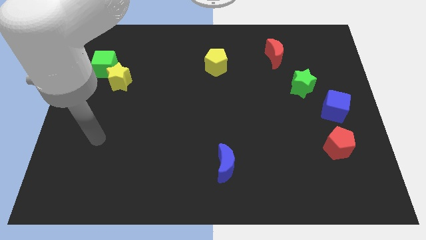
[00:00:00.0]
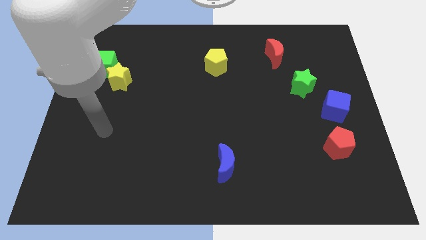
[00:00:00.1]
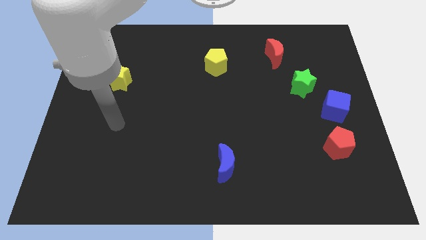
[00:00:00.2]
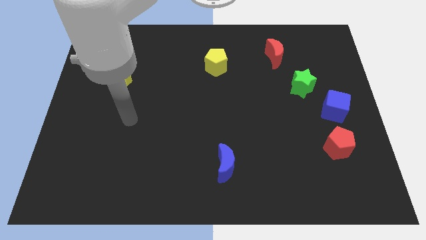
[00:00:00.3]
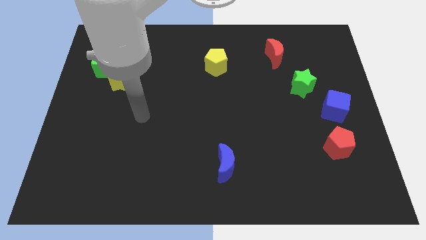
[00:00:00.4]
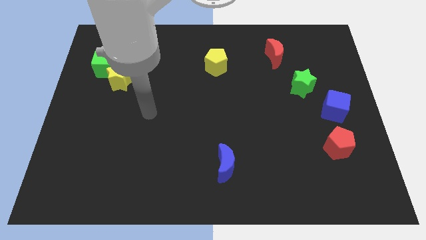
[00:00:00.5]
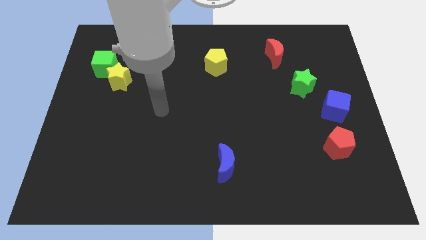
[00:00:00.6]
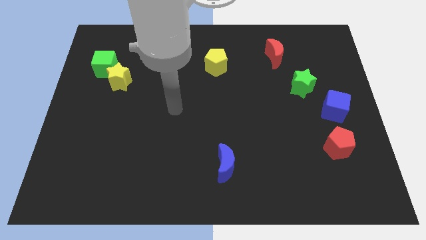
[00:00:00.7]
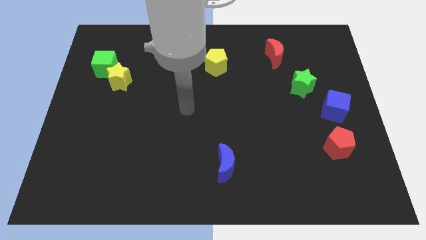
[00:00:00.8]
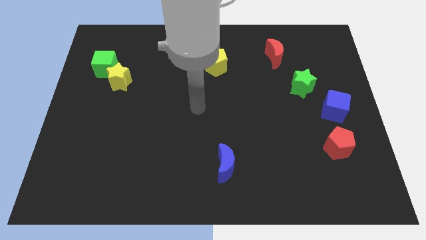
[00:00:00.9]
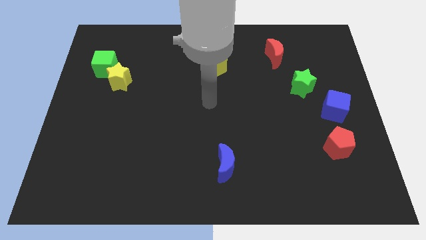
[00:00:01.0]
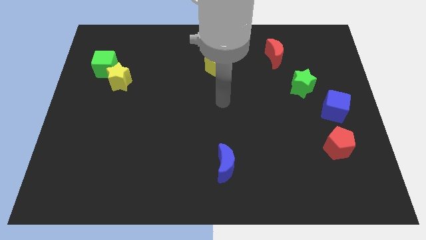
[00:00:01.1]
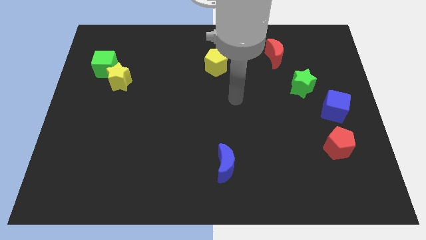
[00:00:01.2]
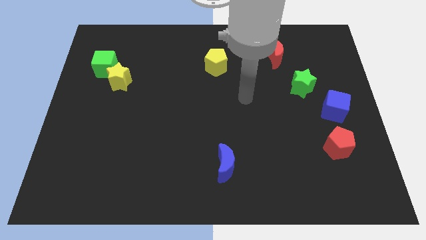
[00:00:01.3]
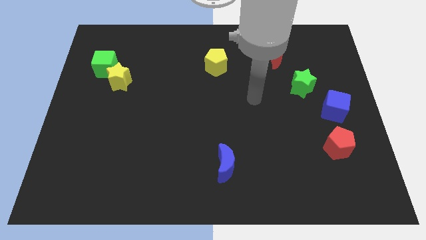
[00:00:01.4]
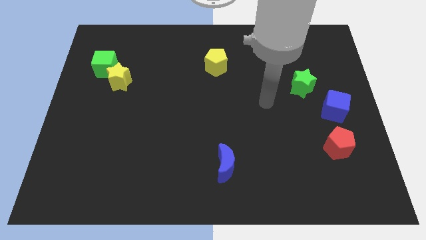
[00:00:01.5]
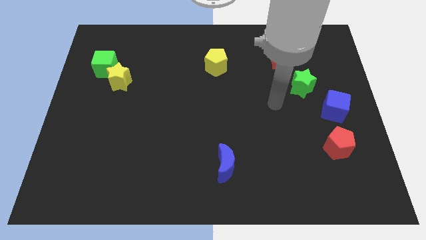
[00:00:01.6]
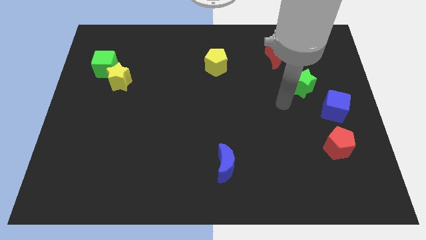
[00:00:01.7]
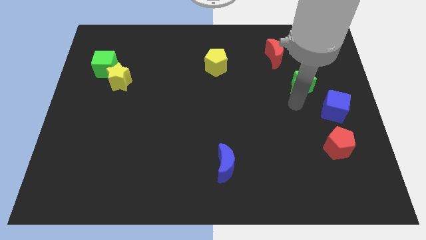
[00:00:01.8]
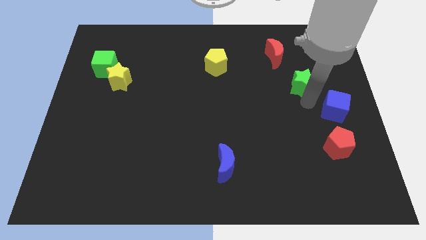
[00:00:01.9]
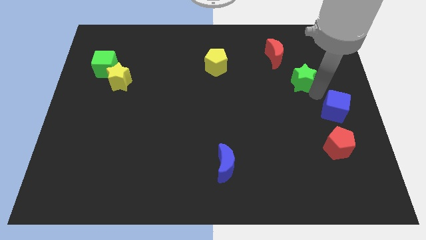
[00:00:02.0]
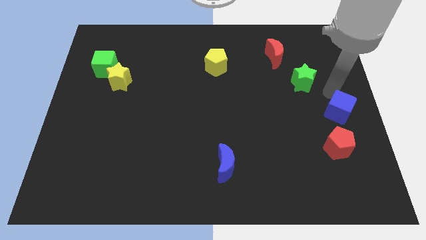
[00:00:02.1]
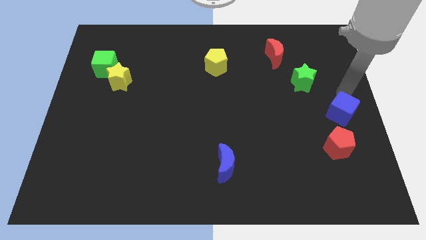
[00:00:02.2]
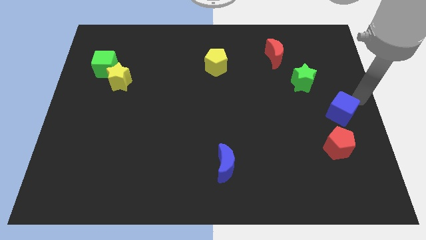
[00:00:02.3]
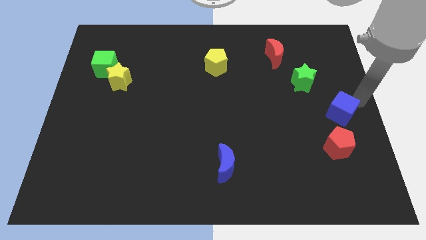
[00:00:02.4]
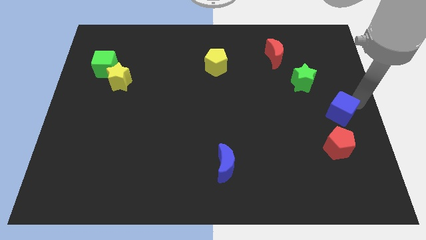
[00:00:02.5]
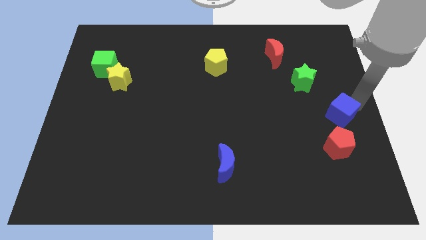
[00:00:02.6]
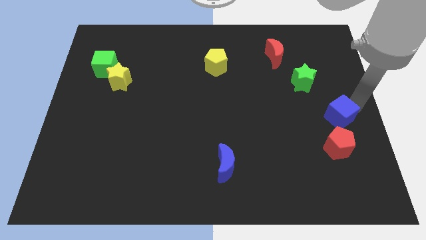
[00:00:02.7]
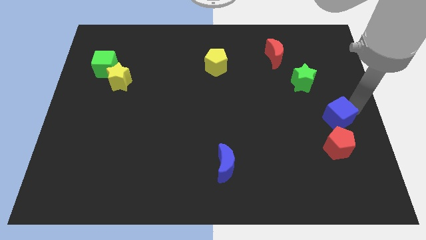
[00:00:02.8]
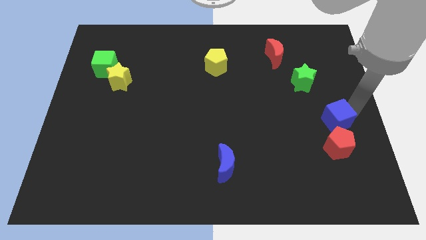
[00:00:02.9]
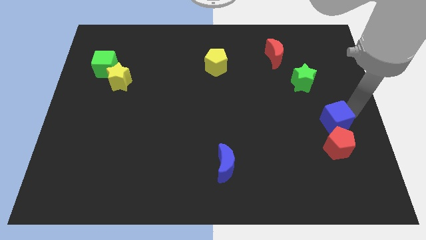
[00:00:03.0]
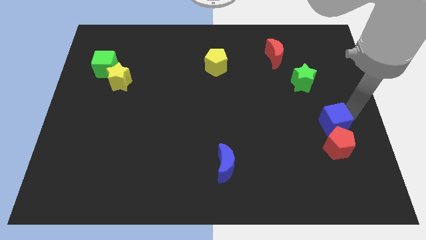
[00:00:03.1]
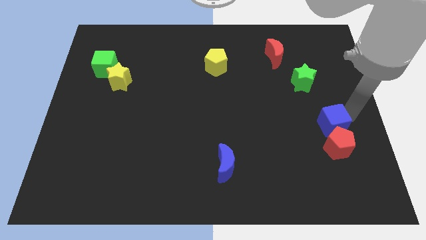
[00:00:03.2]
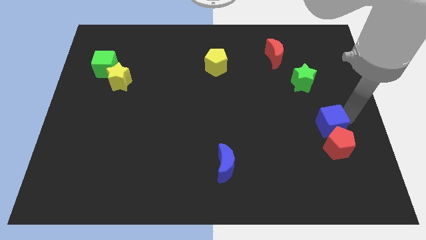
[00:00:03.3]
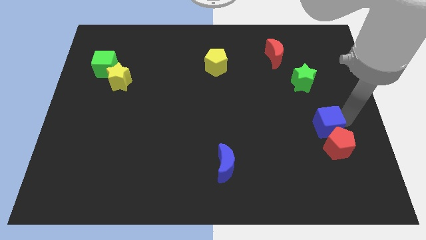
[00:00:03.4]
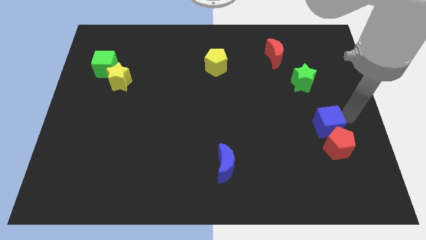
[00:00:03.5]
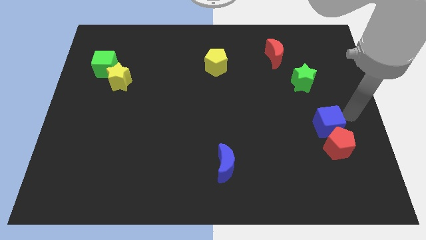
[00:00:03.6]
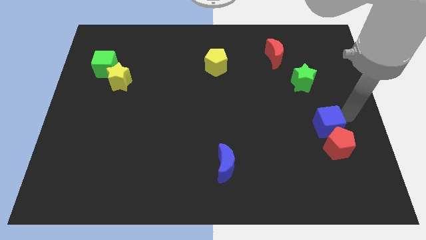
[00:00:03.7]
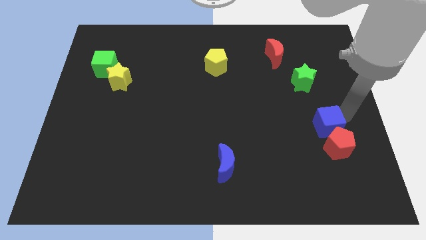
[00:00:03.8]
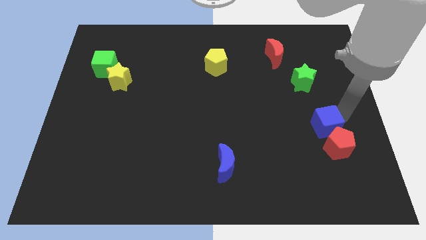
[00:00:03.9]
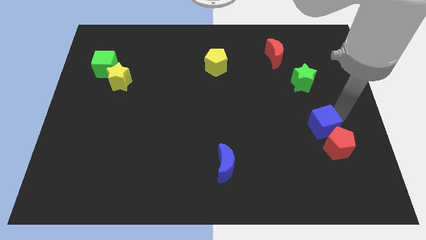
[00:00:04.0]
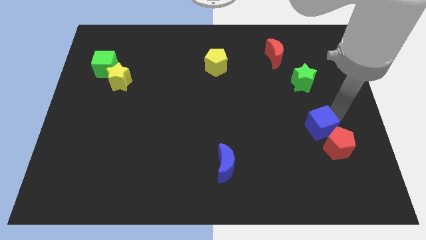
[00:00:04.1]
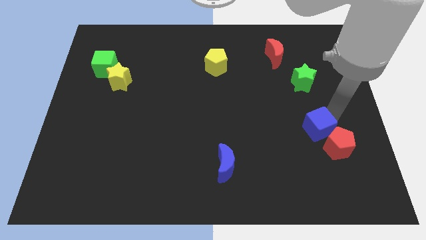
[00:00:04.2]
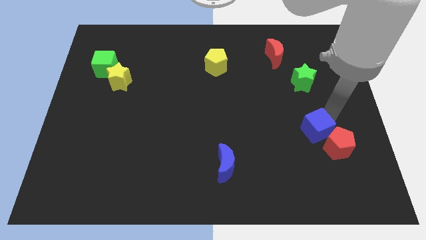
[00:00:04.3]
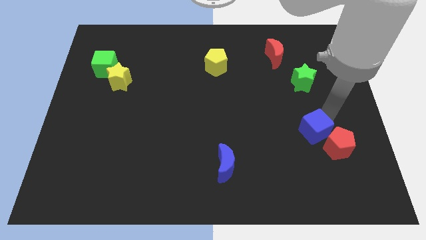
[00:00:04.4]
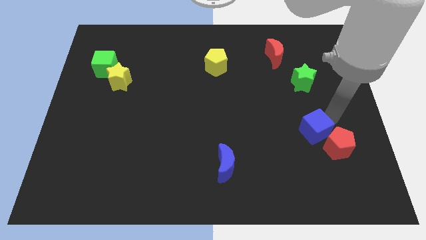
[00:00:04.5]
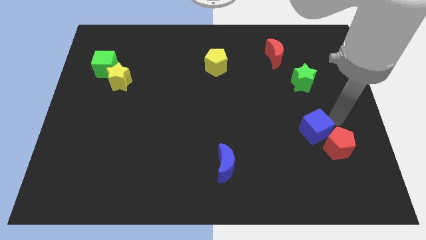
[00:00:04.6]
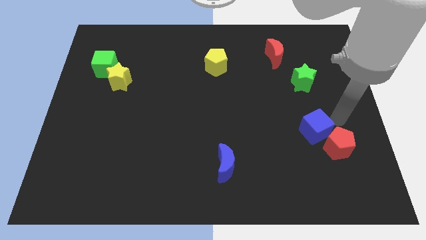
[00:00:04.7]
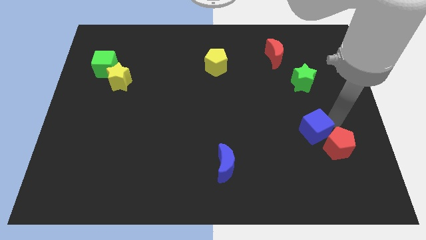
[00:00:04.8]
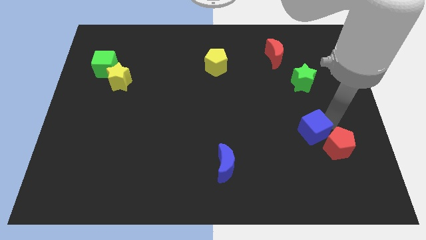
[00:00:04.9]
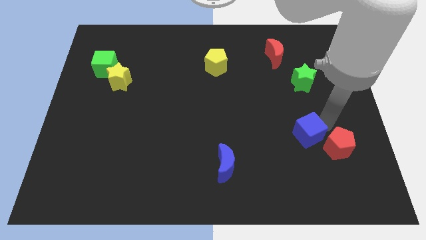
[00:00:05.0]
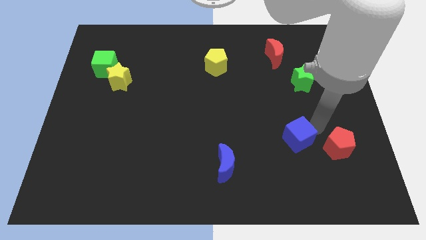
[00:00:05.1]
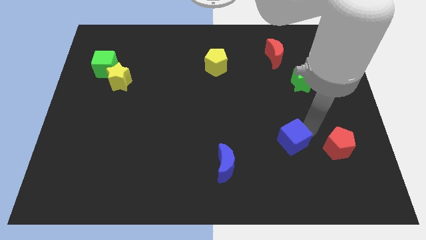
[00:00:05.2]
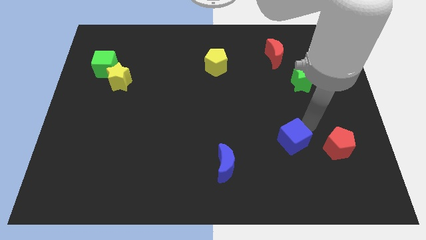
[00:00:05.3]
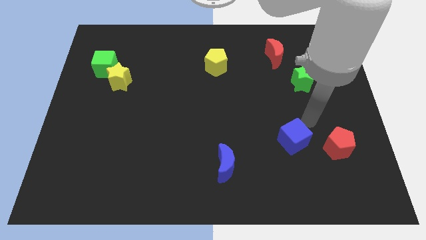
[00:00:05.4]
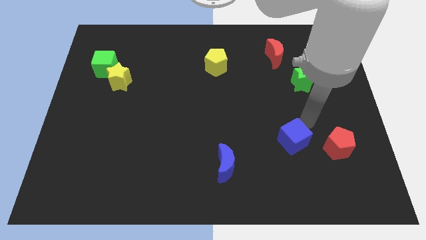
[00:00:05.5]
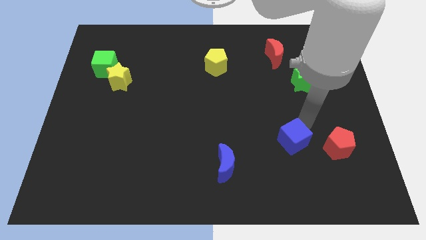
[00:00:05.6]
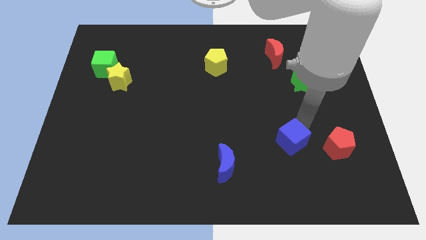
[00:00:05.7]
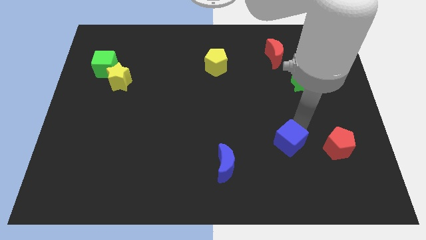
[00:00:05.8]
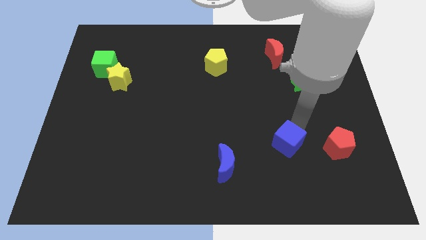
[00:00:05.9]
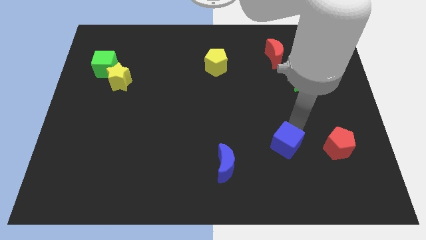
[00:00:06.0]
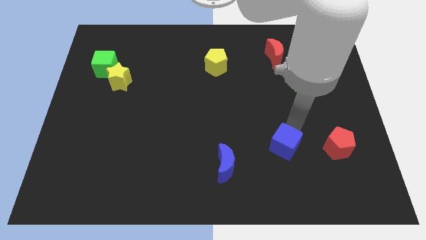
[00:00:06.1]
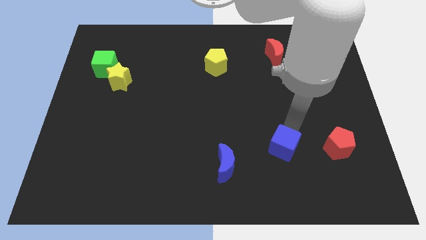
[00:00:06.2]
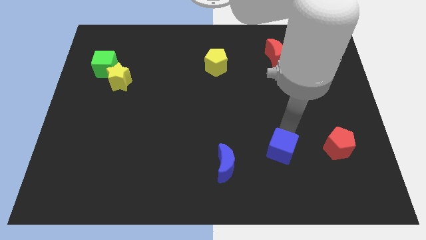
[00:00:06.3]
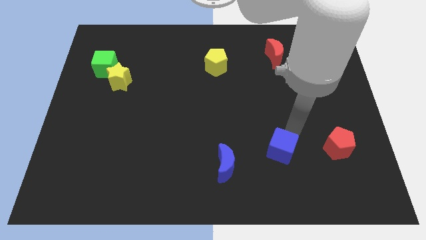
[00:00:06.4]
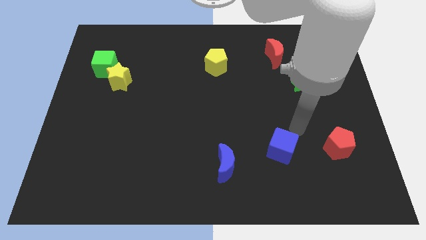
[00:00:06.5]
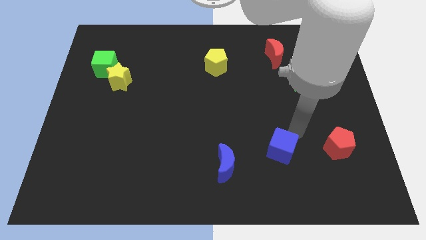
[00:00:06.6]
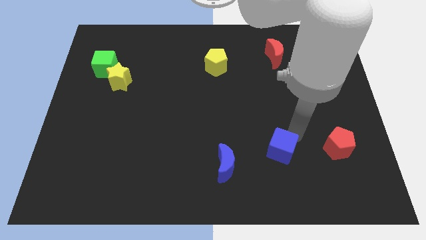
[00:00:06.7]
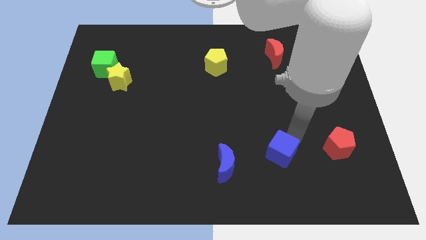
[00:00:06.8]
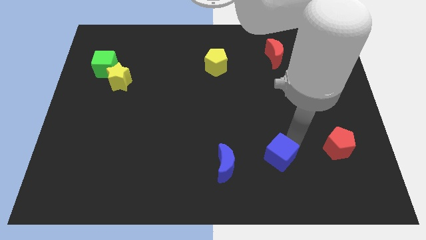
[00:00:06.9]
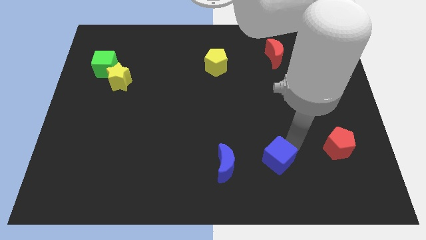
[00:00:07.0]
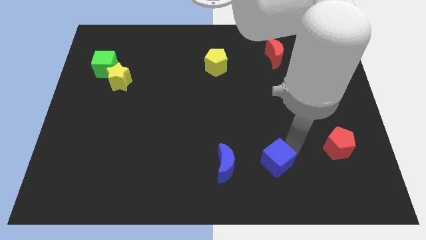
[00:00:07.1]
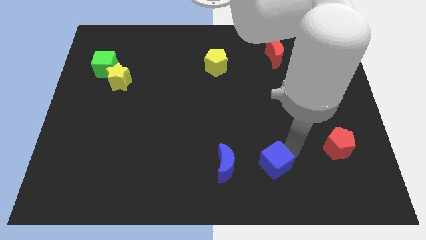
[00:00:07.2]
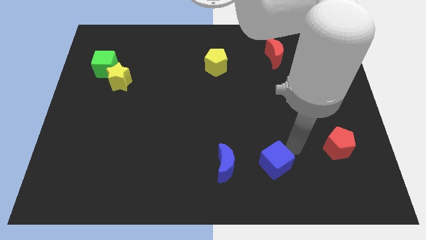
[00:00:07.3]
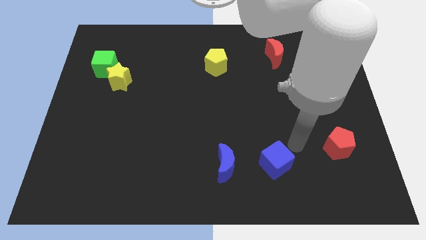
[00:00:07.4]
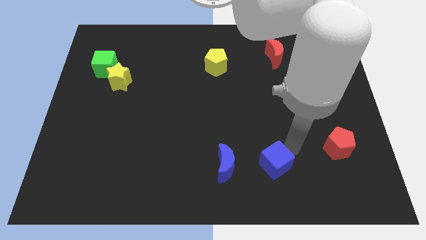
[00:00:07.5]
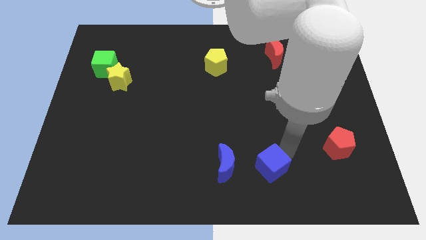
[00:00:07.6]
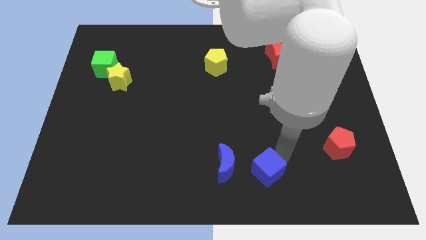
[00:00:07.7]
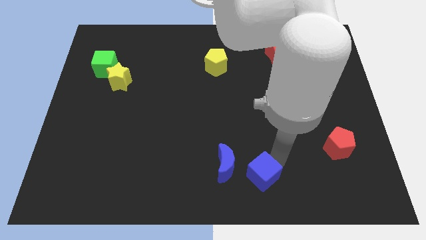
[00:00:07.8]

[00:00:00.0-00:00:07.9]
slide the blue cube to the bottom
